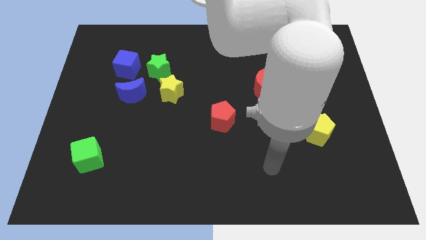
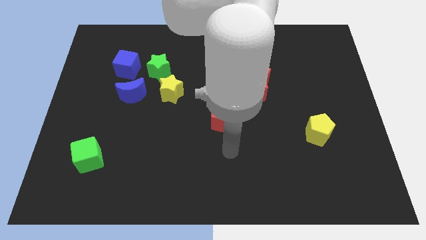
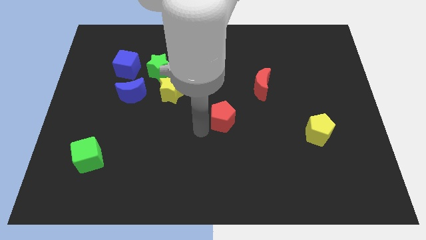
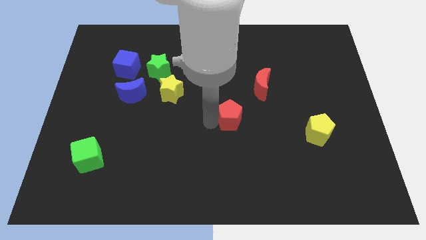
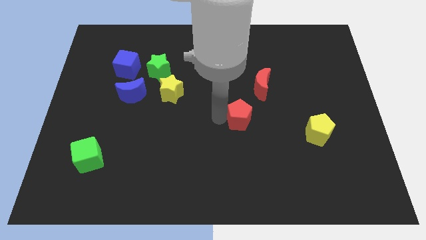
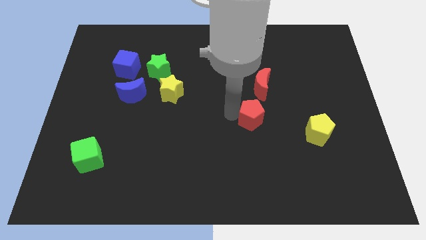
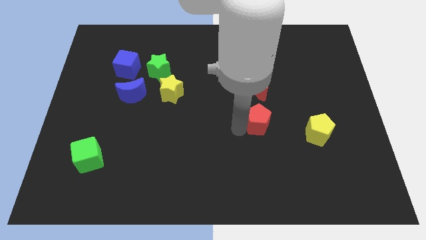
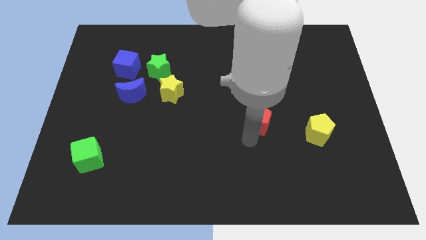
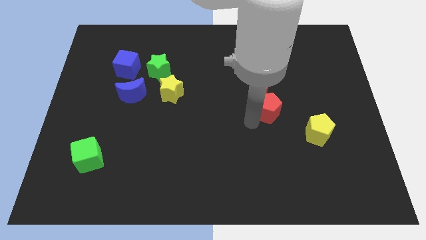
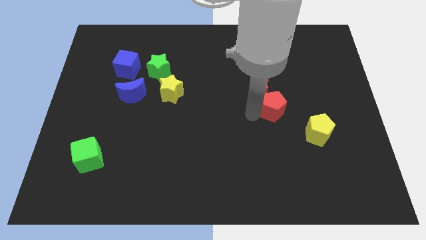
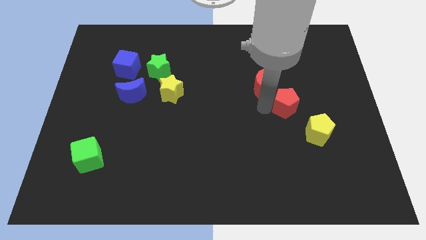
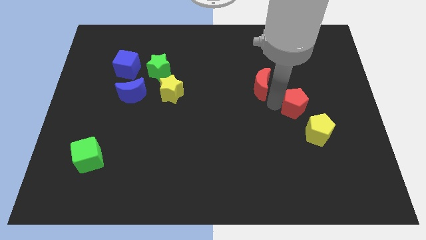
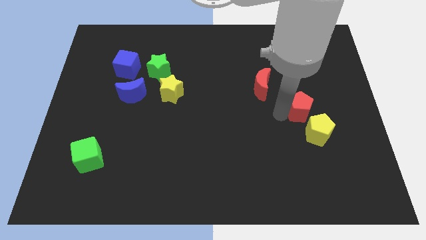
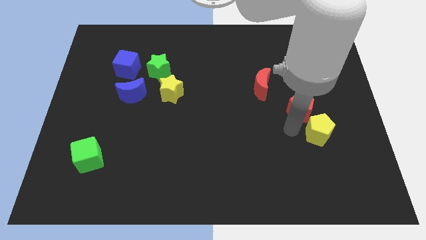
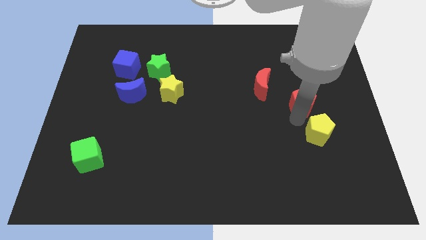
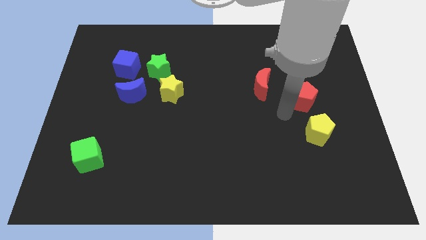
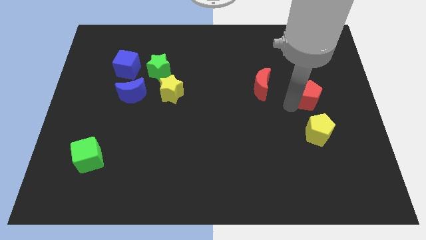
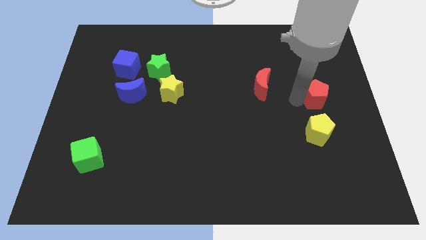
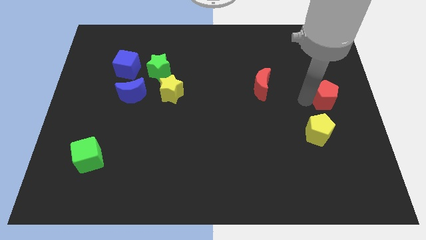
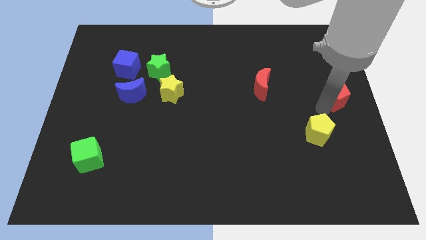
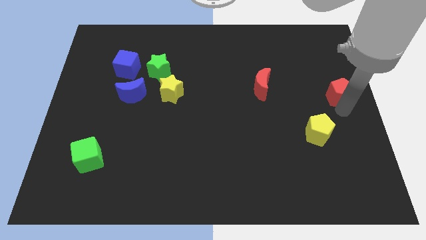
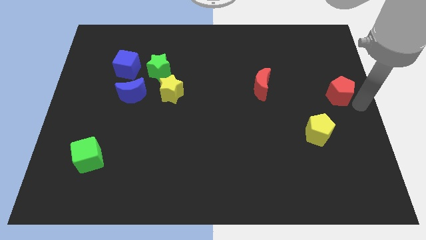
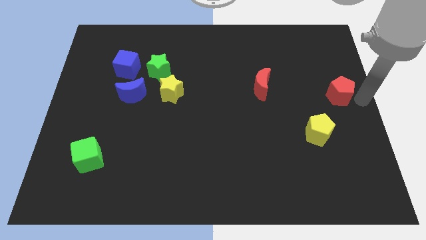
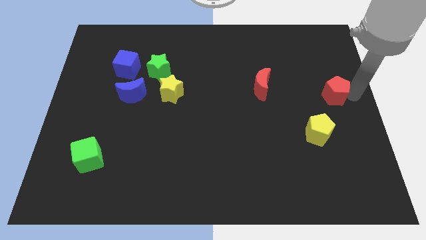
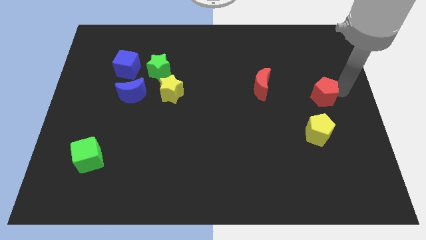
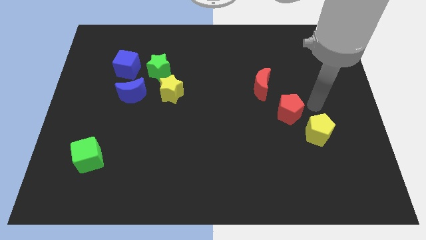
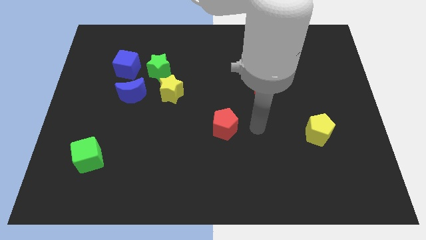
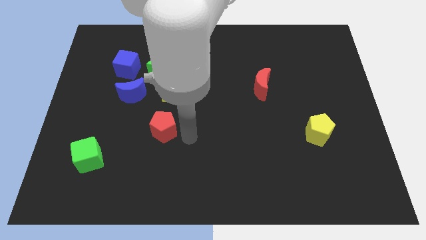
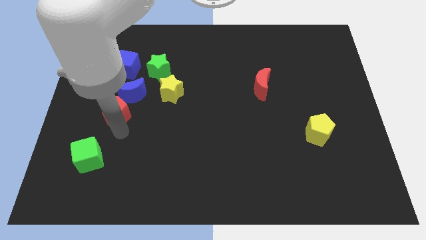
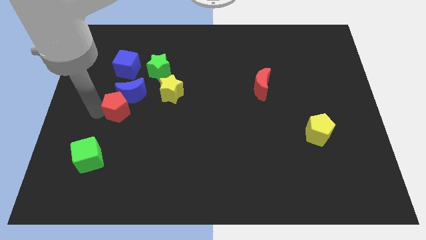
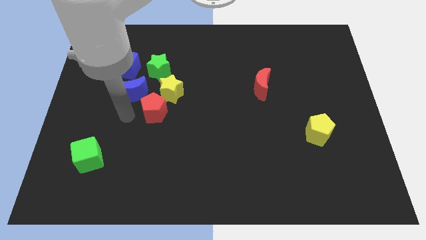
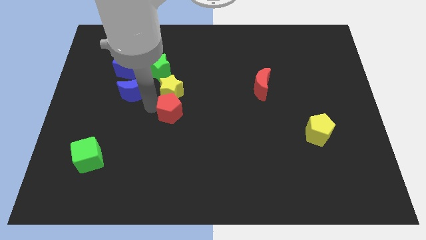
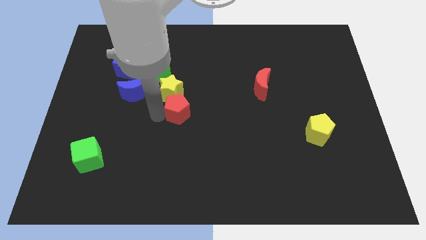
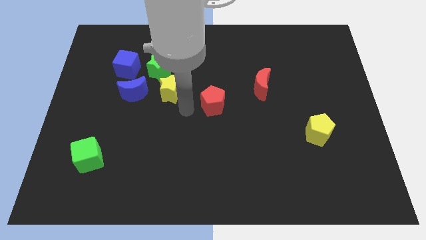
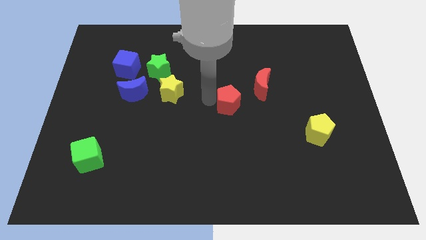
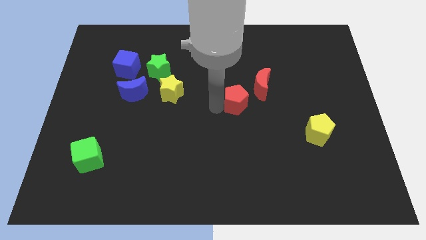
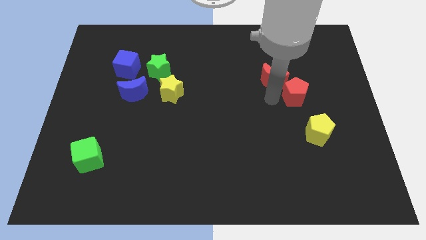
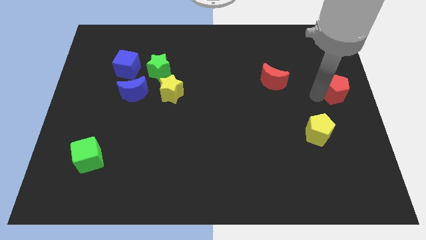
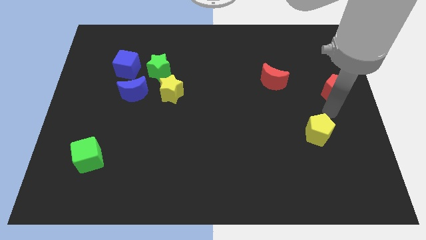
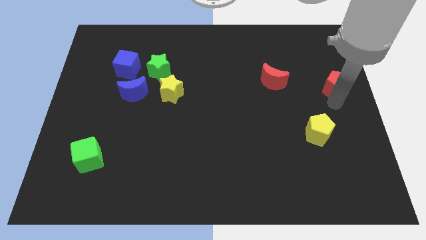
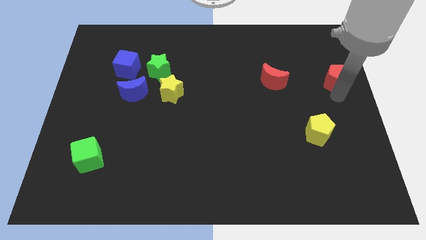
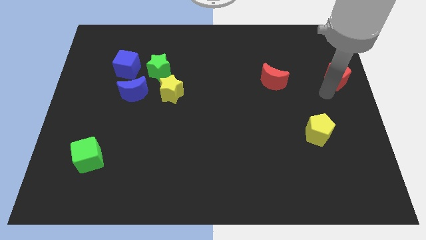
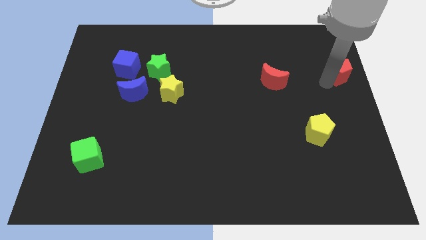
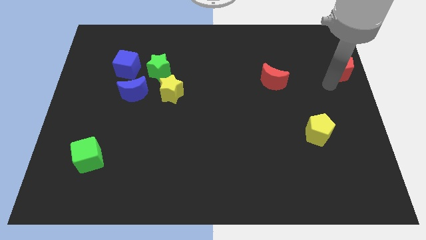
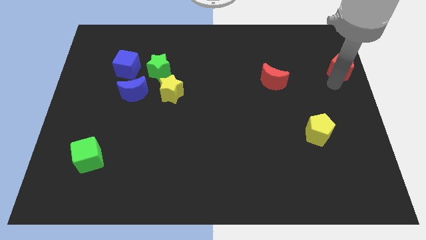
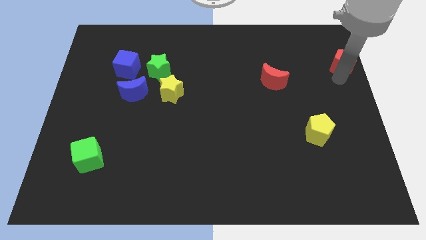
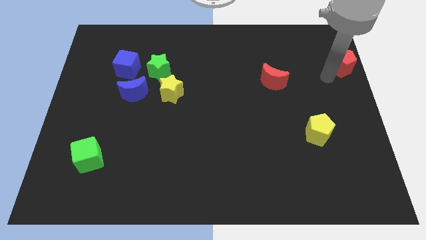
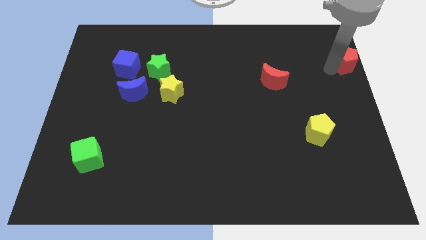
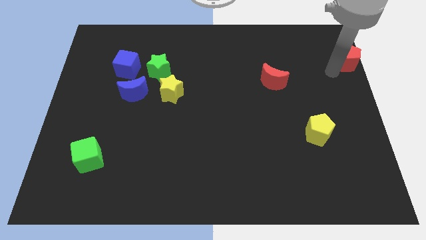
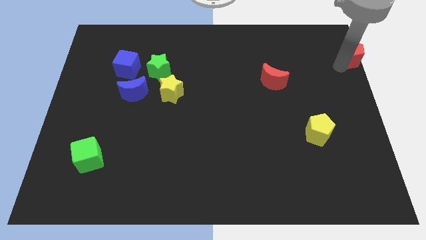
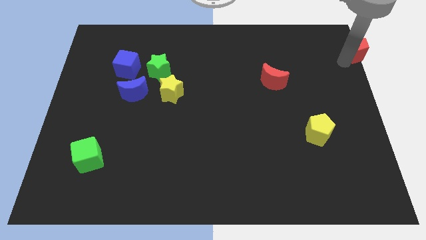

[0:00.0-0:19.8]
put the red pentagon to the top right of the board

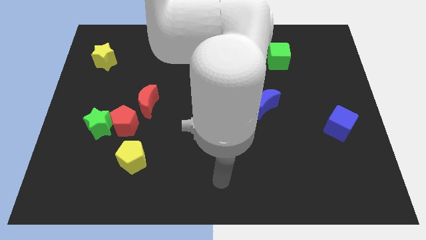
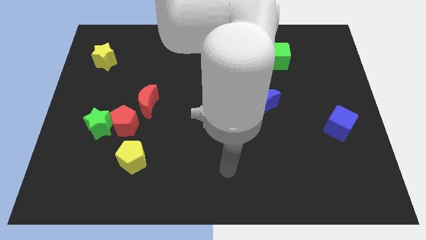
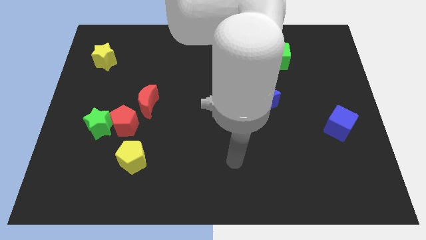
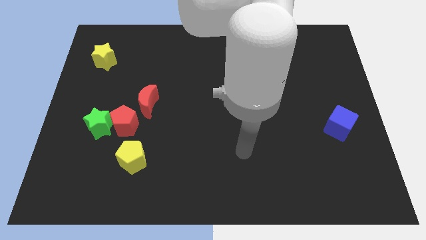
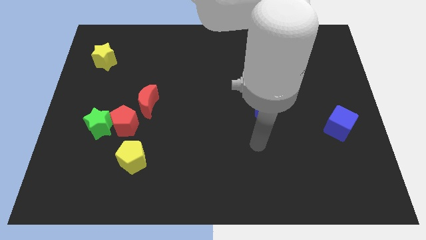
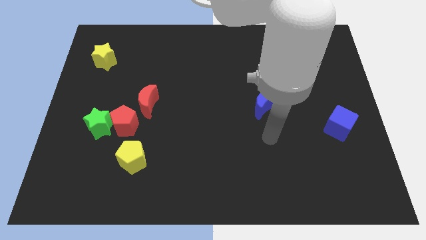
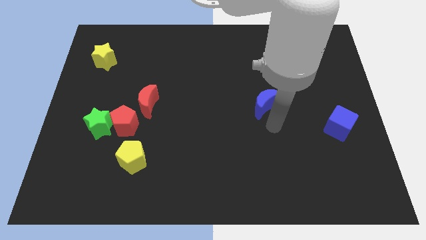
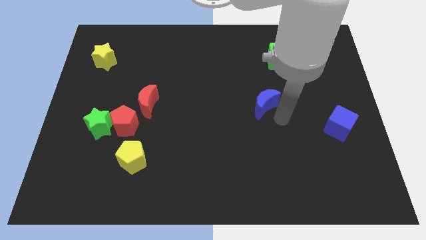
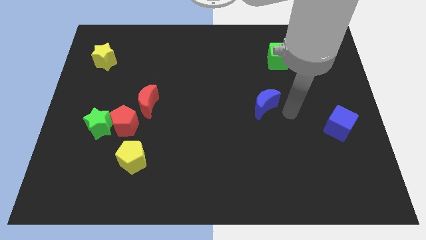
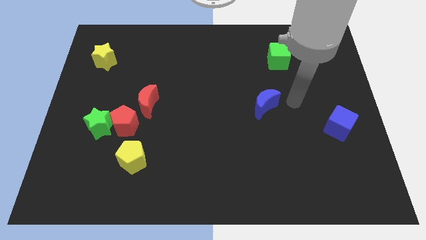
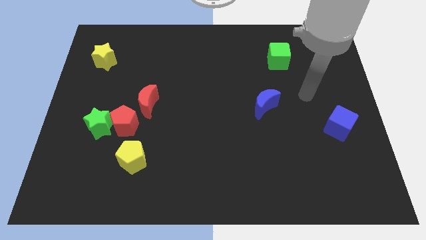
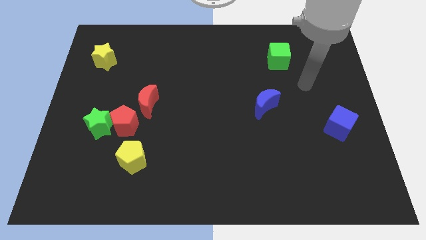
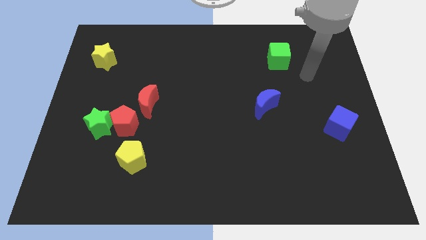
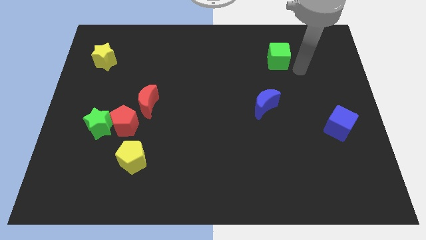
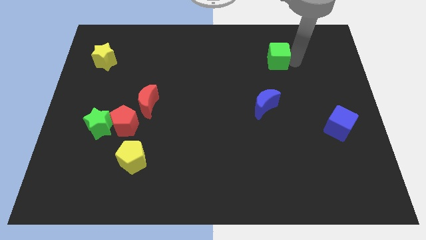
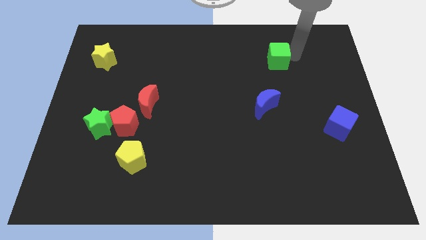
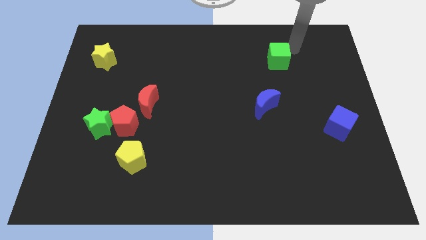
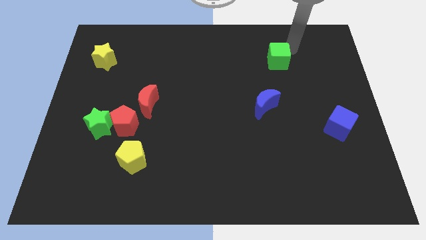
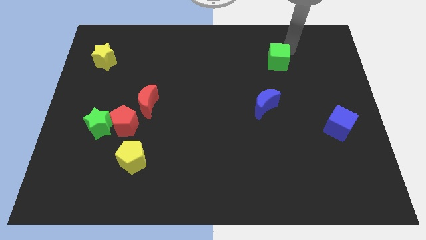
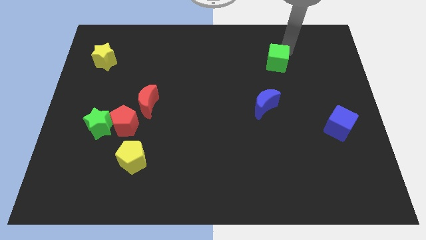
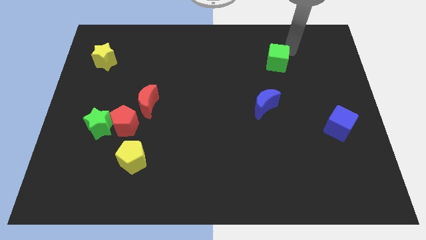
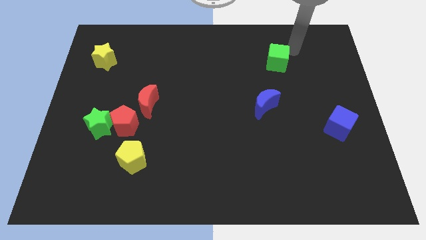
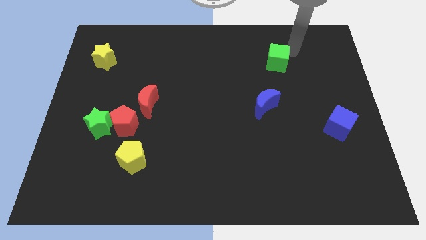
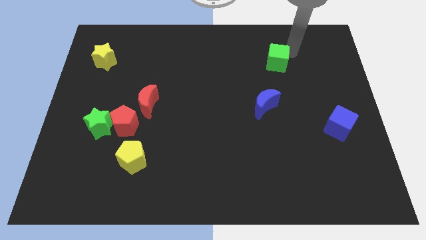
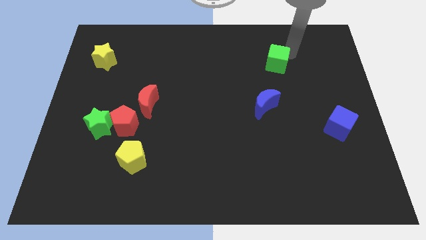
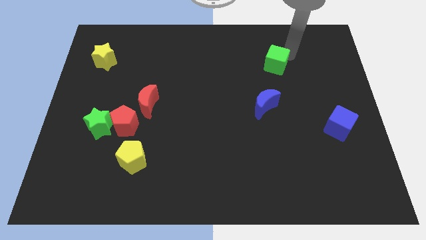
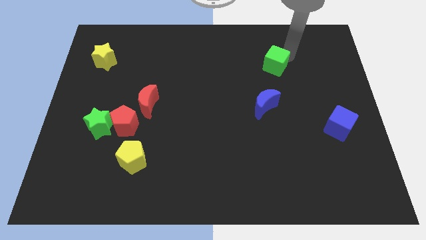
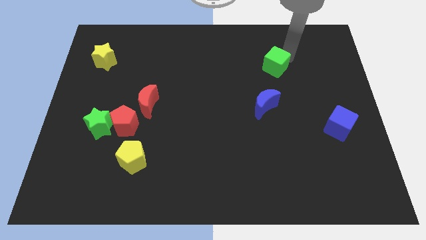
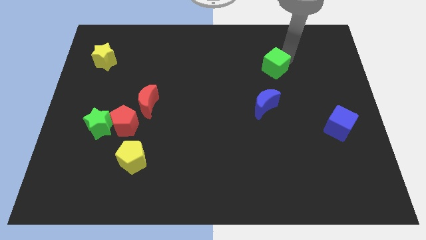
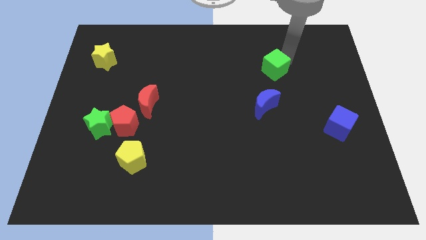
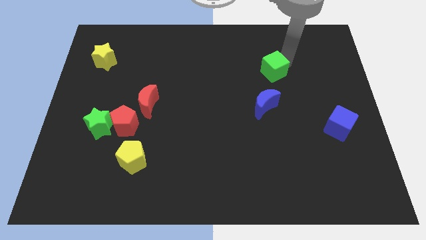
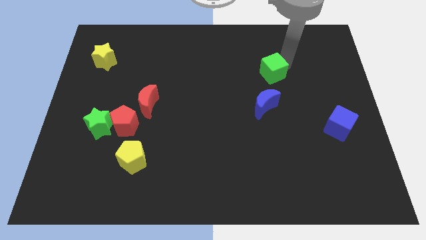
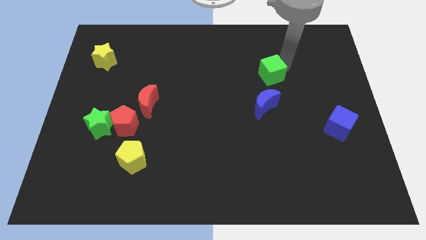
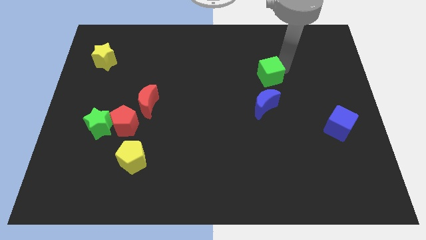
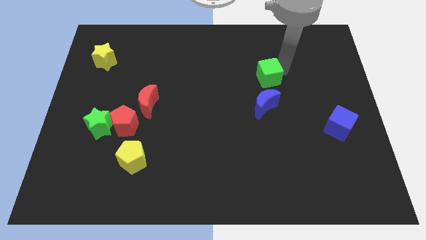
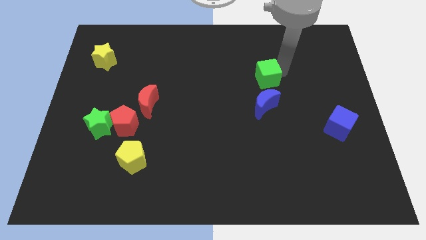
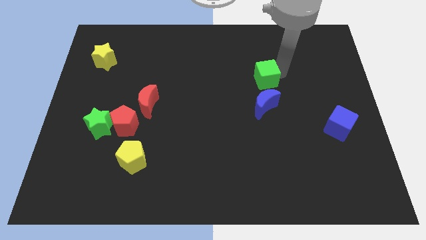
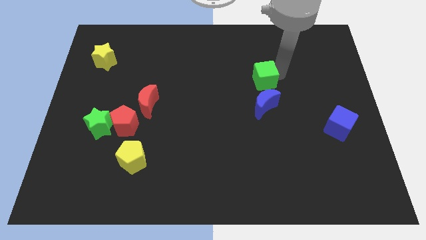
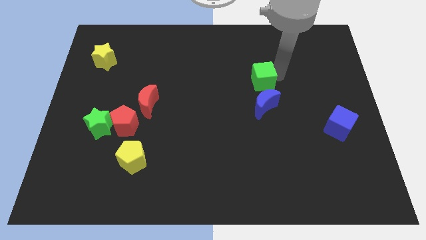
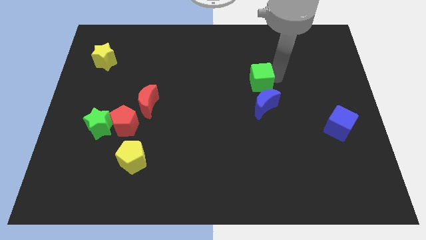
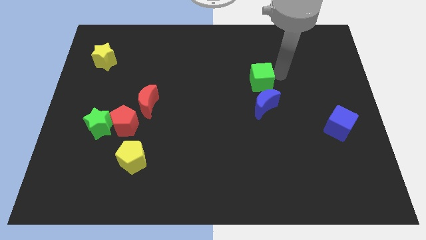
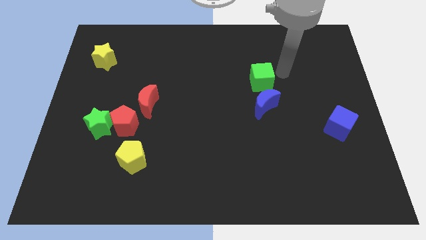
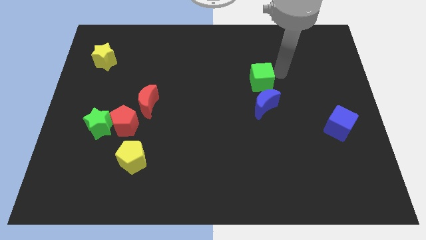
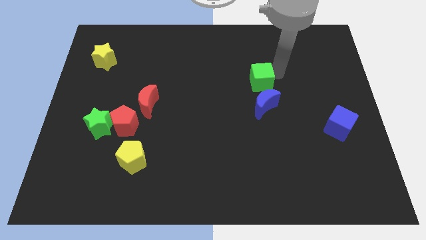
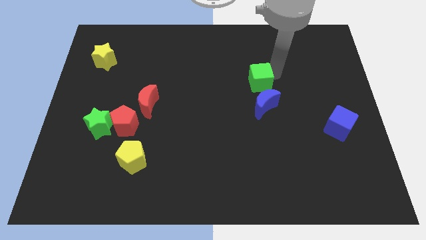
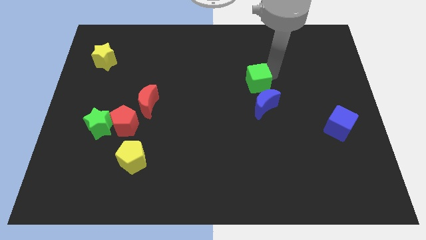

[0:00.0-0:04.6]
push the green cube to the middle of the board
